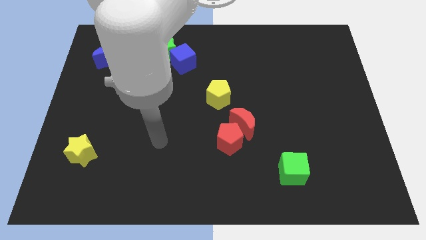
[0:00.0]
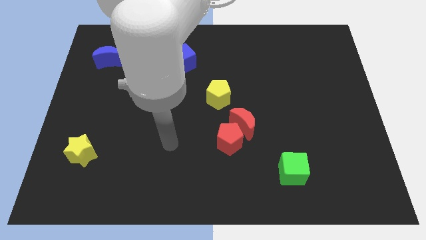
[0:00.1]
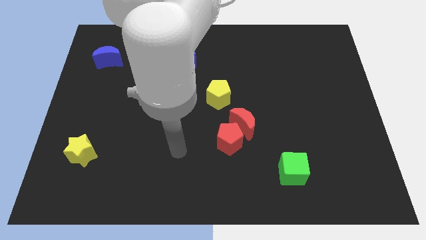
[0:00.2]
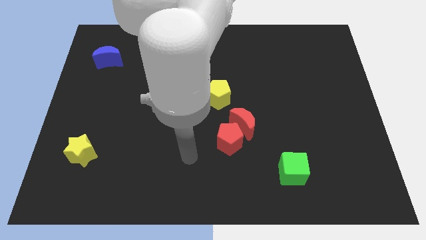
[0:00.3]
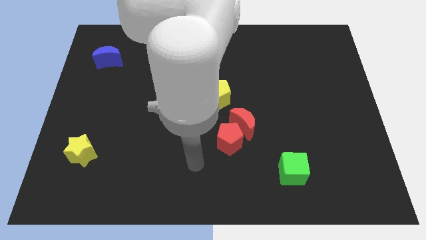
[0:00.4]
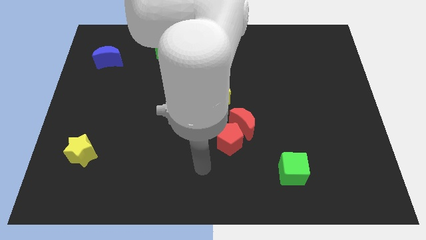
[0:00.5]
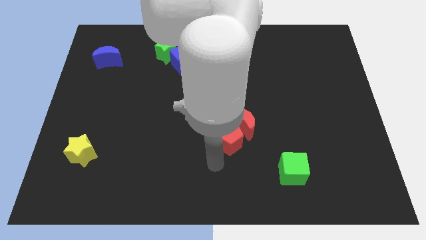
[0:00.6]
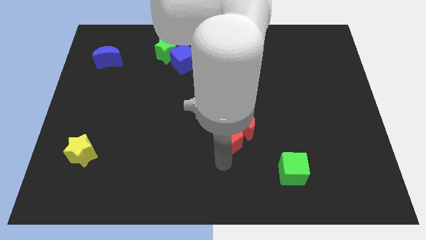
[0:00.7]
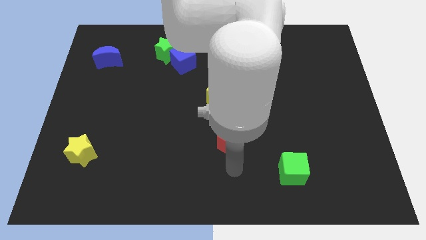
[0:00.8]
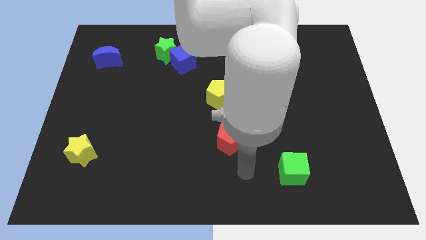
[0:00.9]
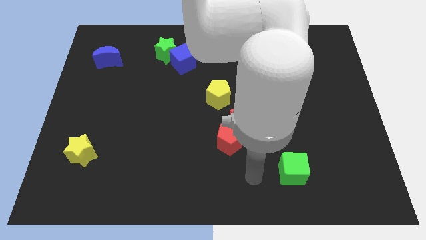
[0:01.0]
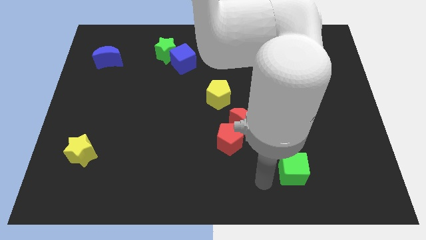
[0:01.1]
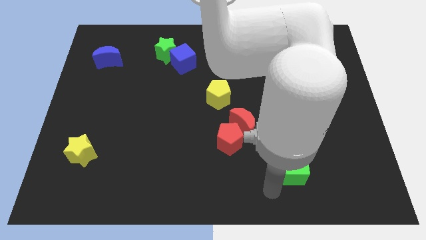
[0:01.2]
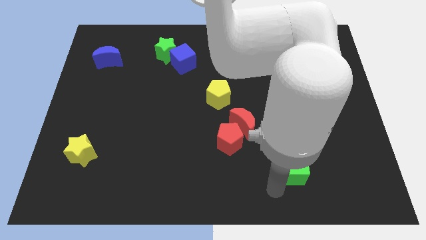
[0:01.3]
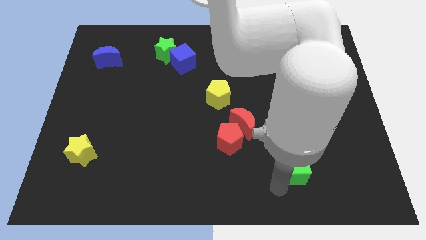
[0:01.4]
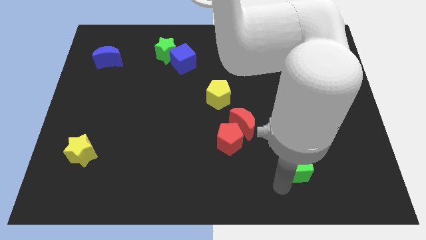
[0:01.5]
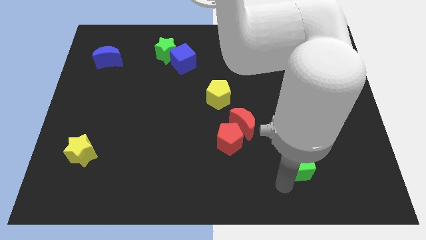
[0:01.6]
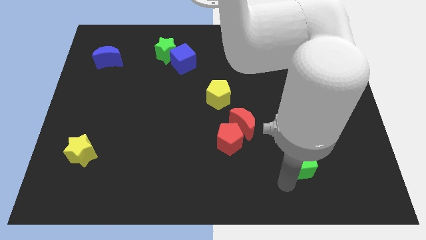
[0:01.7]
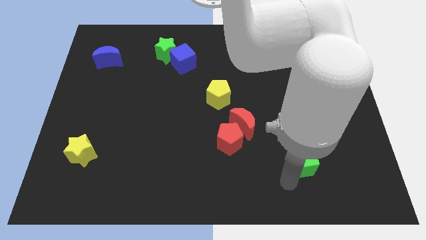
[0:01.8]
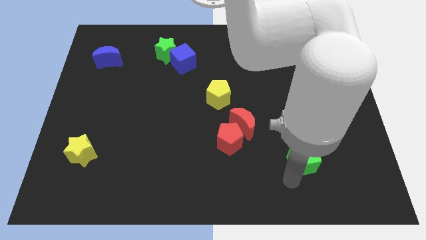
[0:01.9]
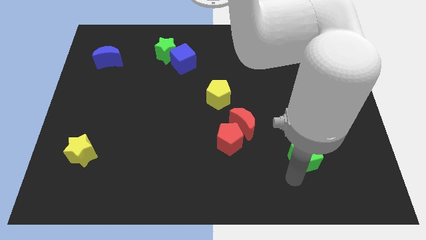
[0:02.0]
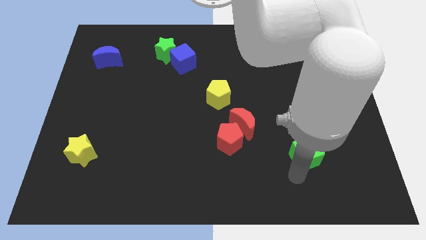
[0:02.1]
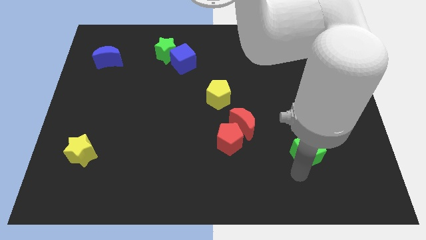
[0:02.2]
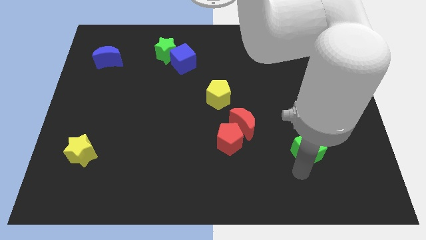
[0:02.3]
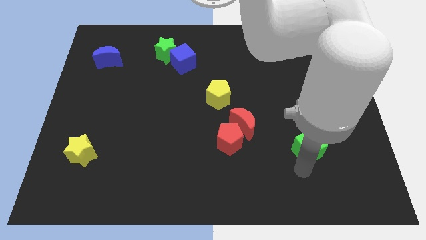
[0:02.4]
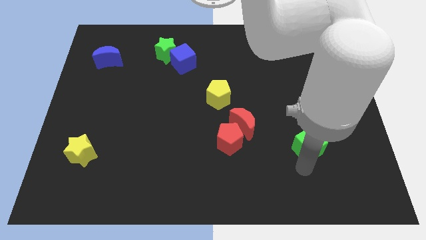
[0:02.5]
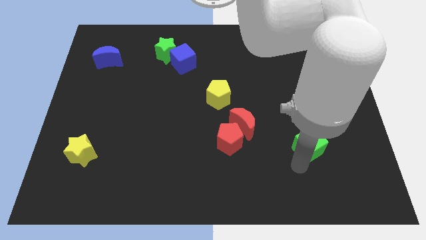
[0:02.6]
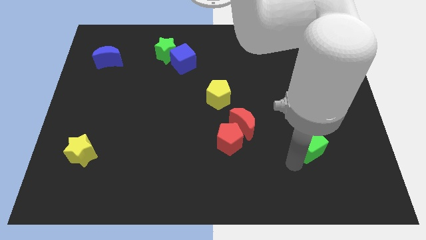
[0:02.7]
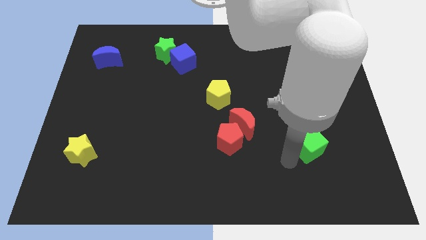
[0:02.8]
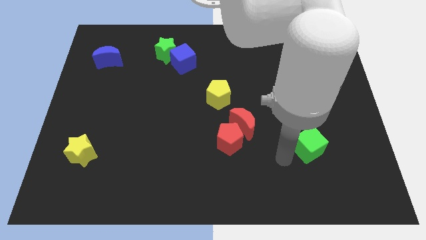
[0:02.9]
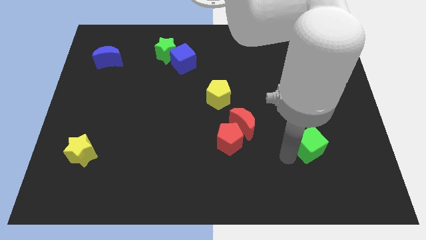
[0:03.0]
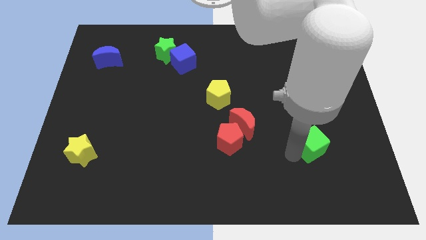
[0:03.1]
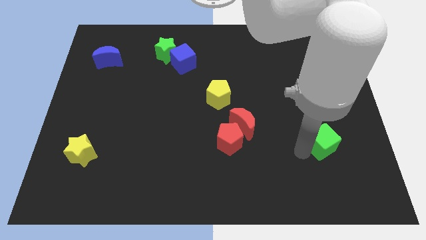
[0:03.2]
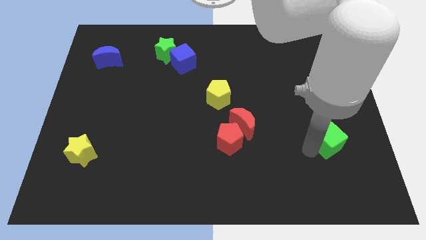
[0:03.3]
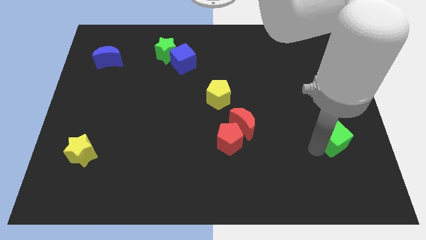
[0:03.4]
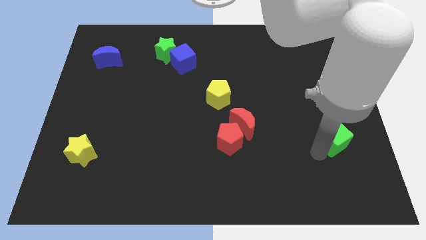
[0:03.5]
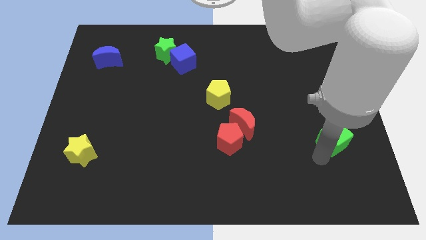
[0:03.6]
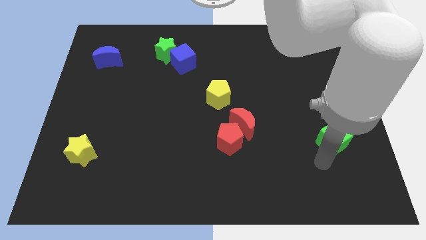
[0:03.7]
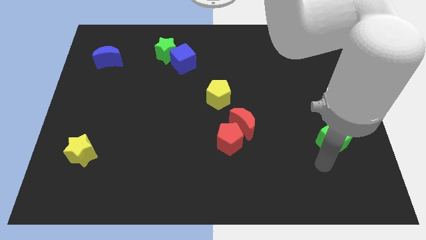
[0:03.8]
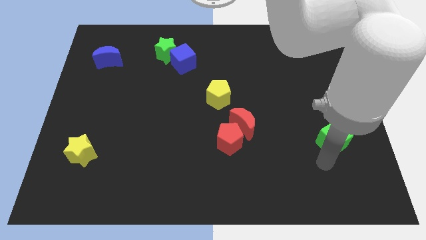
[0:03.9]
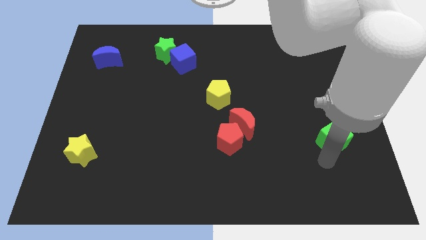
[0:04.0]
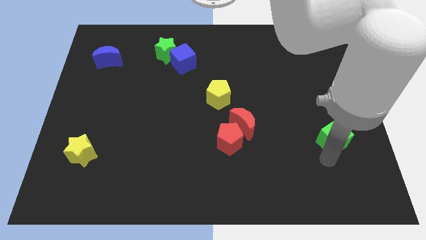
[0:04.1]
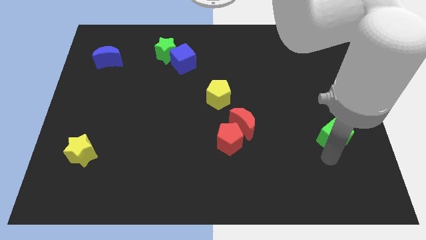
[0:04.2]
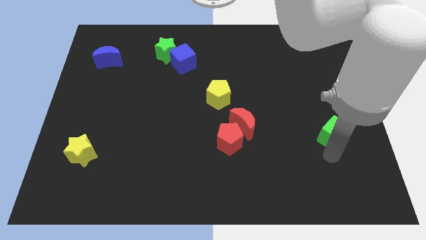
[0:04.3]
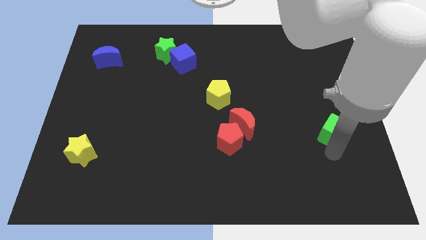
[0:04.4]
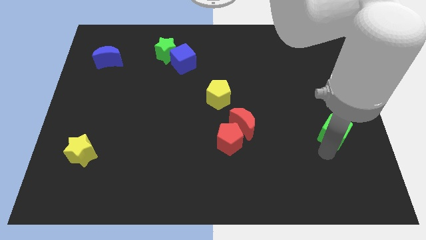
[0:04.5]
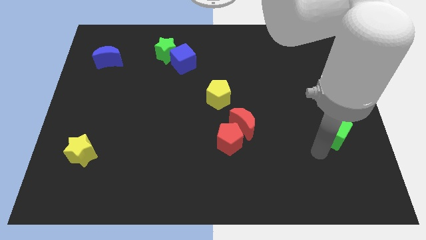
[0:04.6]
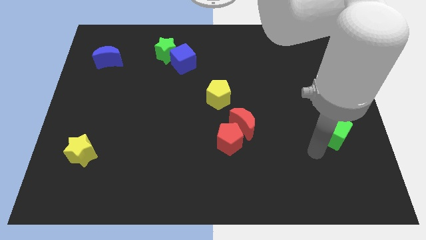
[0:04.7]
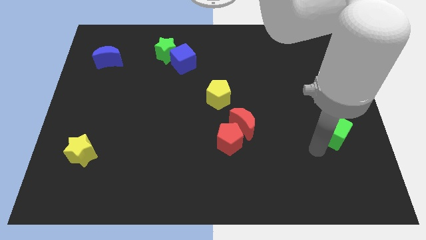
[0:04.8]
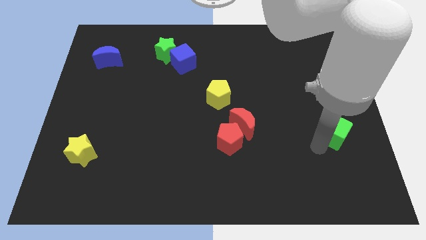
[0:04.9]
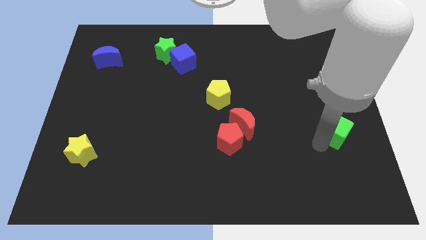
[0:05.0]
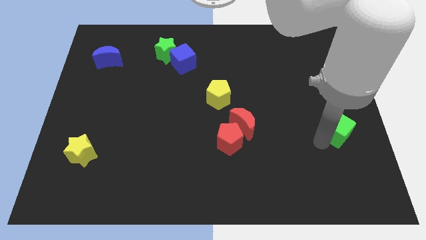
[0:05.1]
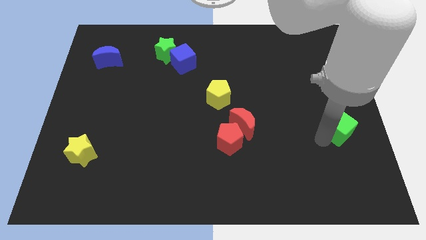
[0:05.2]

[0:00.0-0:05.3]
move the green cube to the right side of the board

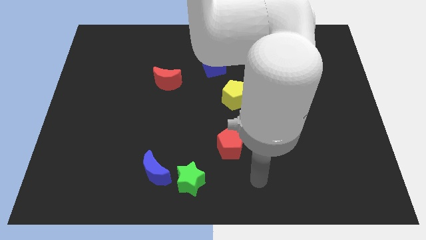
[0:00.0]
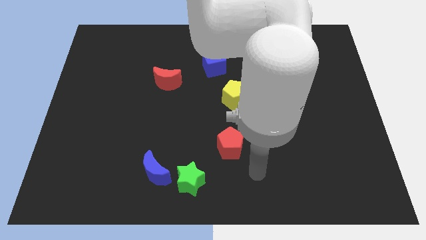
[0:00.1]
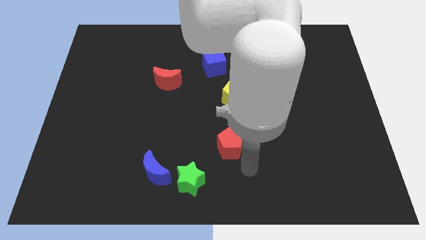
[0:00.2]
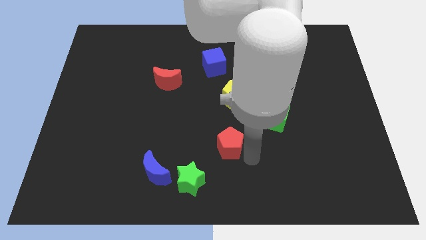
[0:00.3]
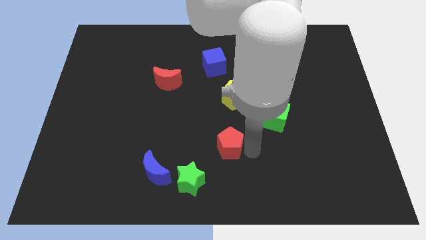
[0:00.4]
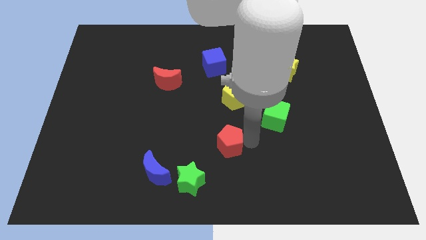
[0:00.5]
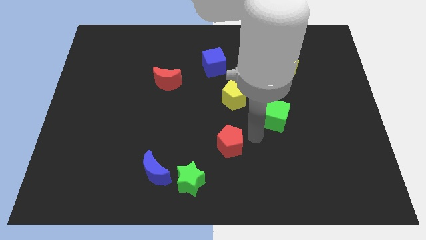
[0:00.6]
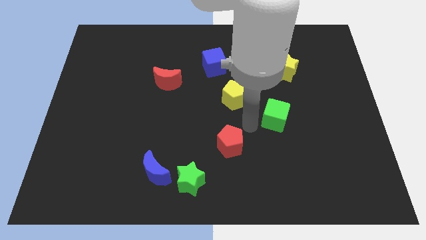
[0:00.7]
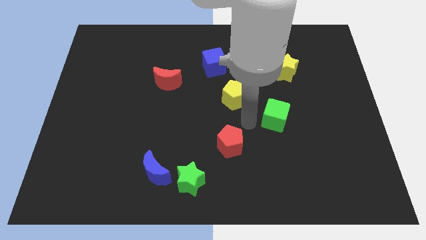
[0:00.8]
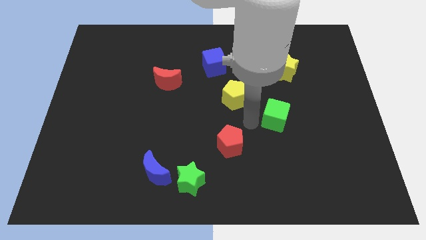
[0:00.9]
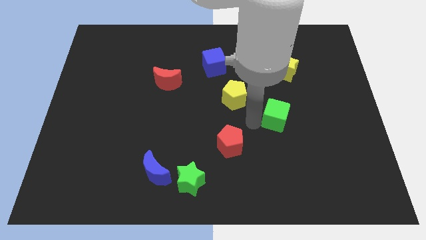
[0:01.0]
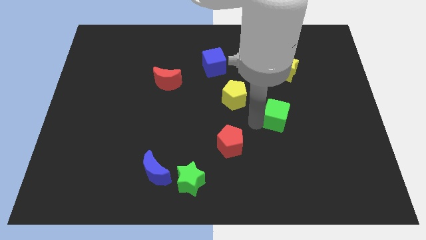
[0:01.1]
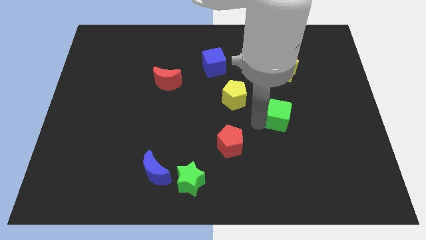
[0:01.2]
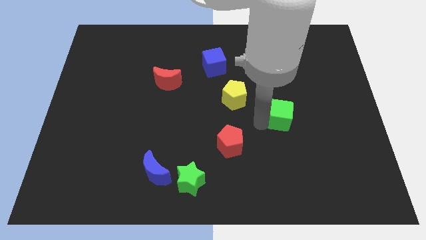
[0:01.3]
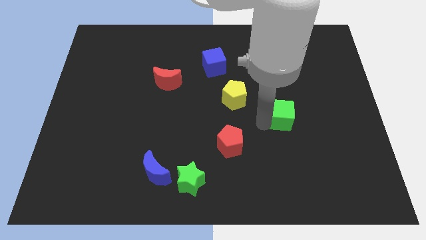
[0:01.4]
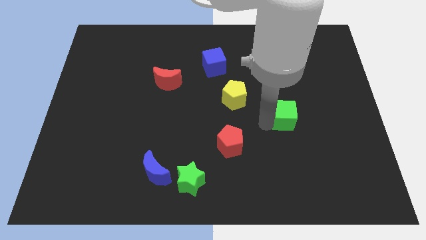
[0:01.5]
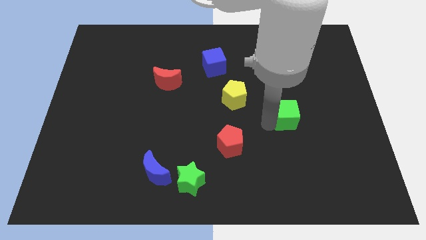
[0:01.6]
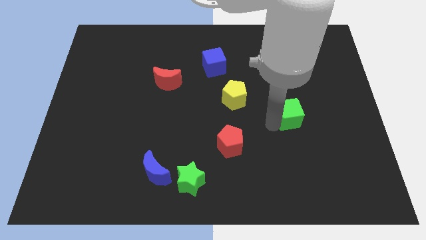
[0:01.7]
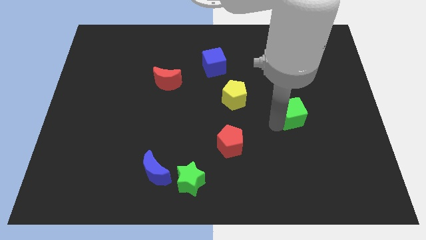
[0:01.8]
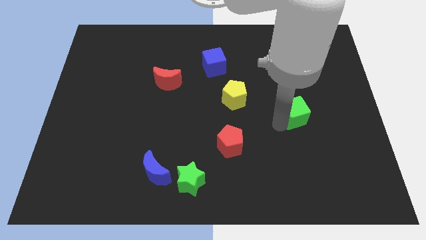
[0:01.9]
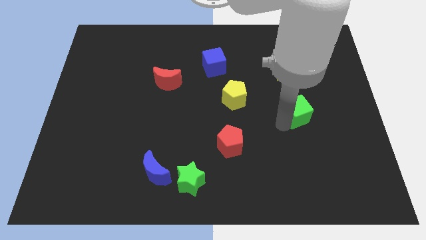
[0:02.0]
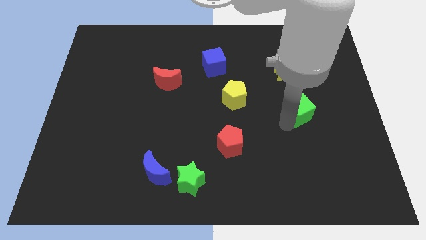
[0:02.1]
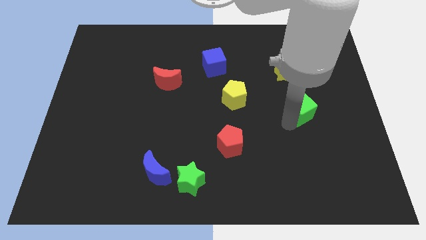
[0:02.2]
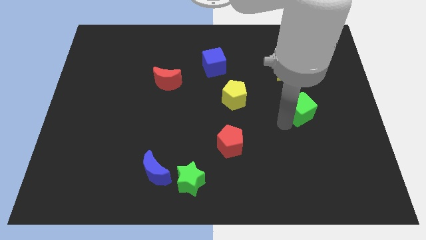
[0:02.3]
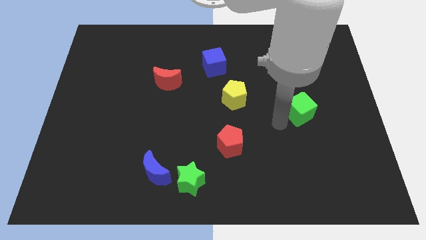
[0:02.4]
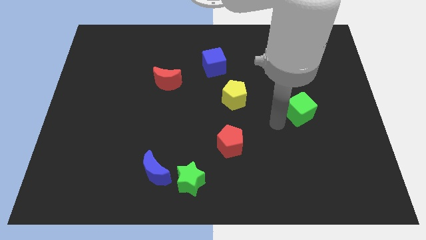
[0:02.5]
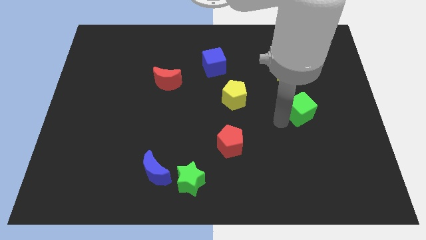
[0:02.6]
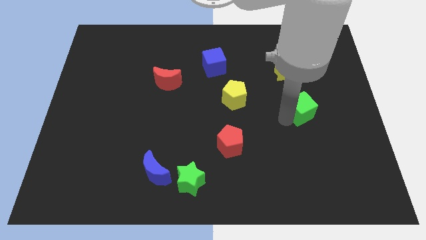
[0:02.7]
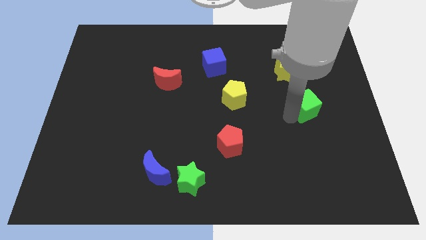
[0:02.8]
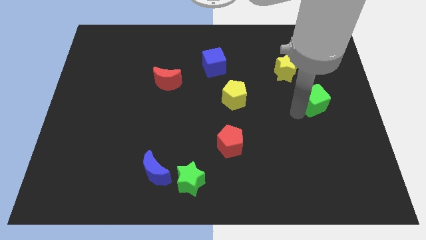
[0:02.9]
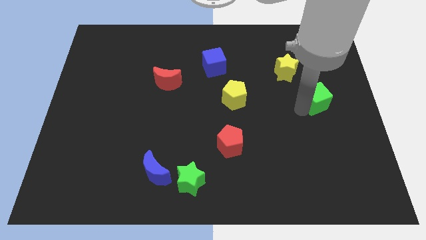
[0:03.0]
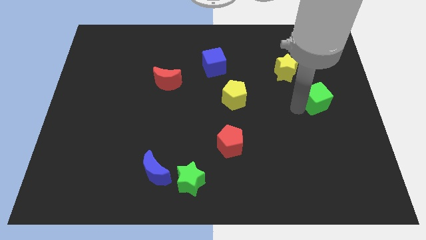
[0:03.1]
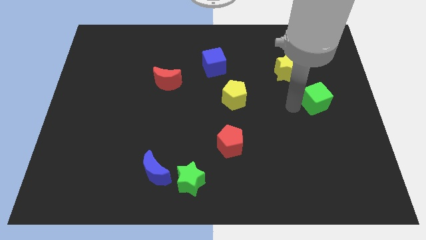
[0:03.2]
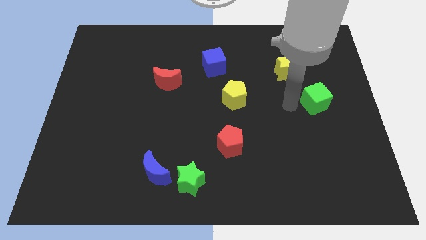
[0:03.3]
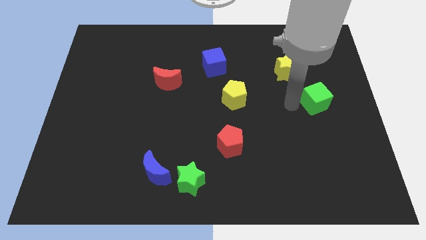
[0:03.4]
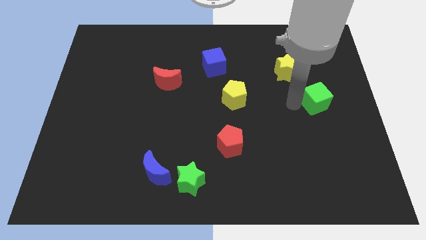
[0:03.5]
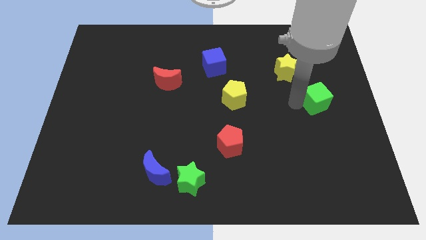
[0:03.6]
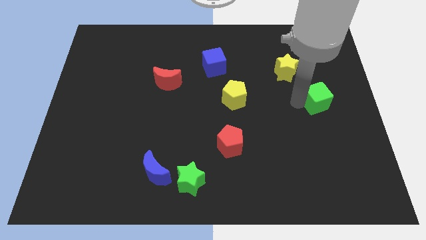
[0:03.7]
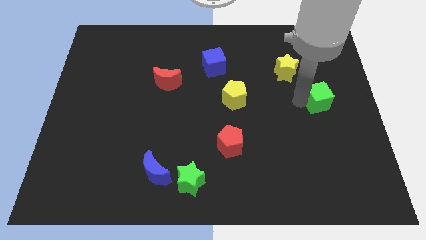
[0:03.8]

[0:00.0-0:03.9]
put the green cube to the right side of the board
